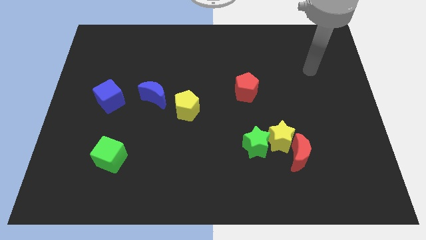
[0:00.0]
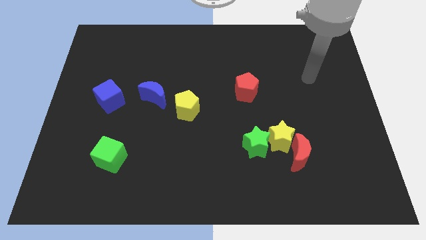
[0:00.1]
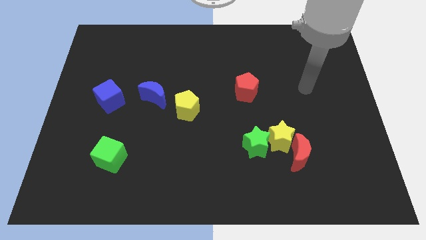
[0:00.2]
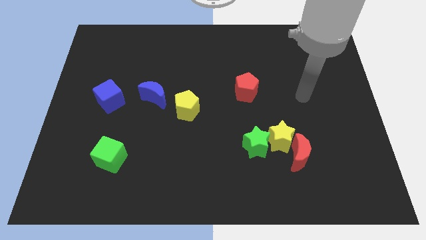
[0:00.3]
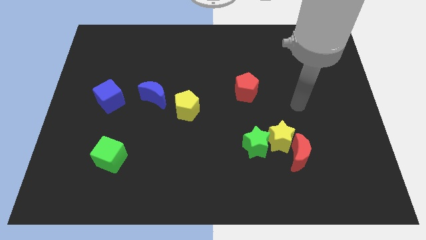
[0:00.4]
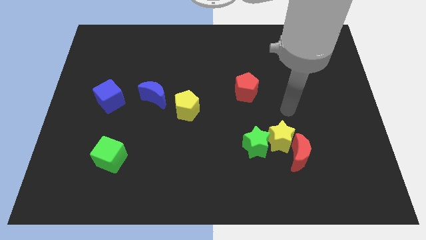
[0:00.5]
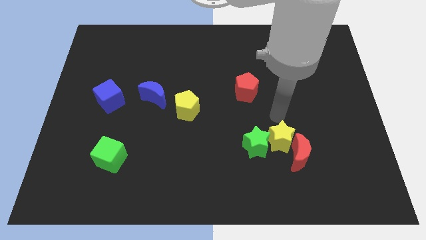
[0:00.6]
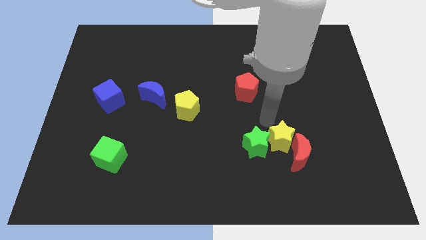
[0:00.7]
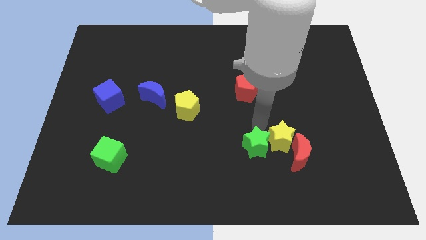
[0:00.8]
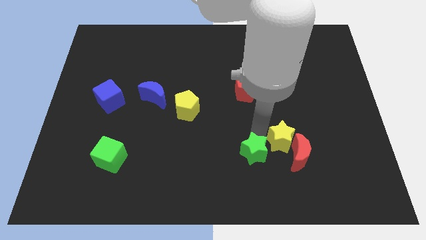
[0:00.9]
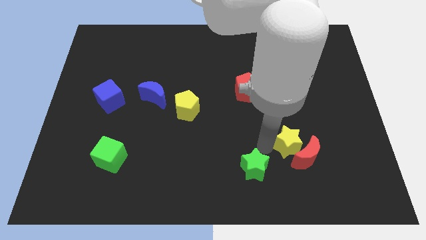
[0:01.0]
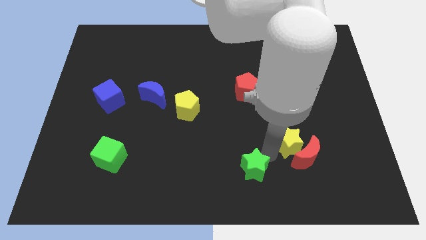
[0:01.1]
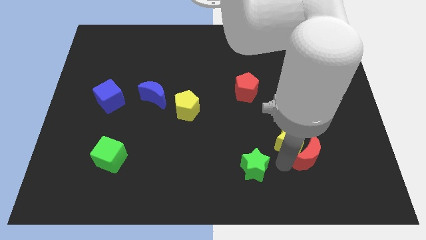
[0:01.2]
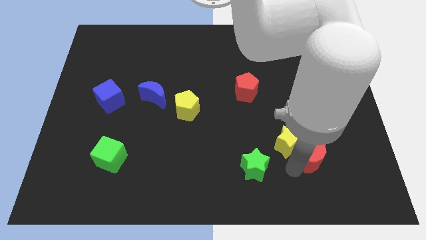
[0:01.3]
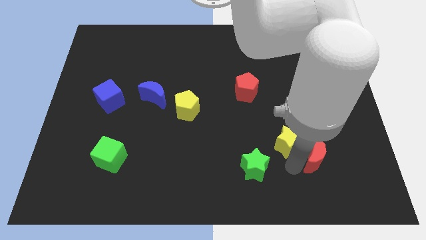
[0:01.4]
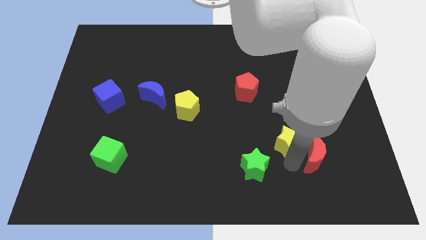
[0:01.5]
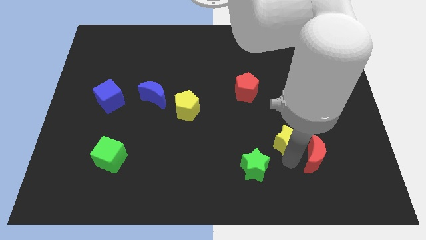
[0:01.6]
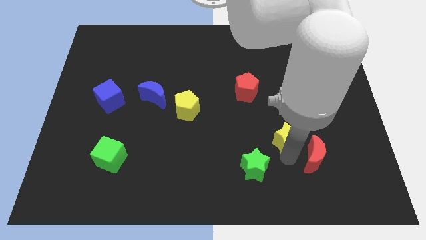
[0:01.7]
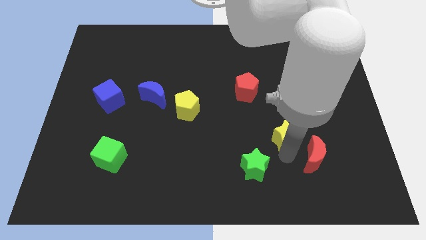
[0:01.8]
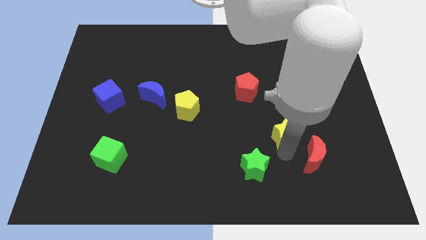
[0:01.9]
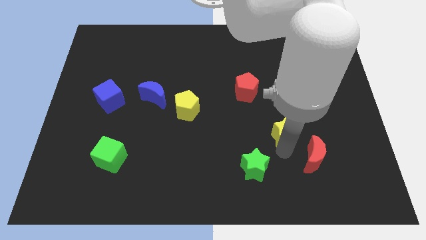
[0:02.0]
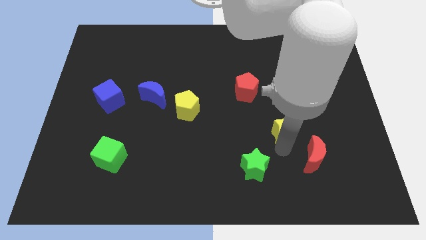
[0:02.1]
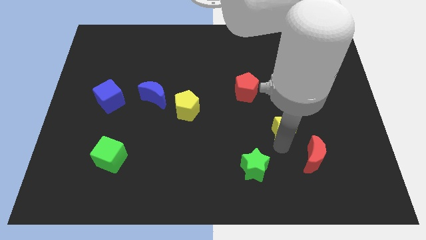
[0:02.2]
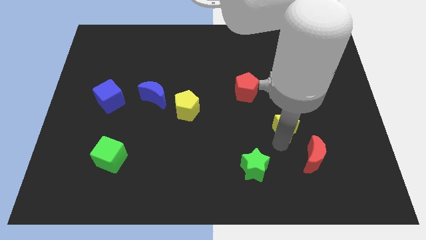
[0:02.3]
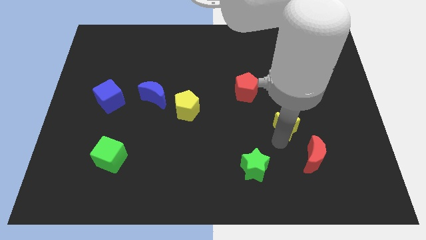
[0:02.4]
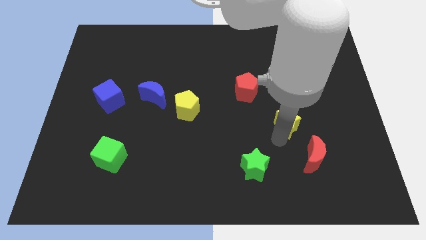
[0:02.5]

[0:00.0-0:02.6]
move the yellow star away from the red moon and green star

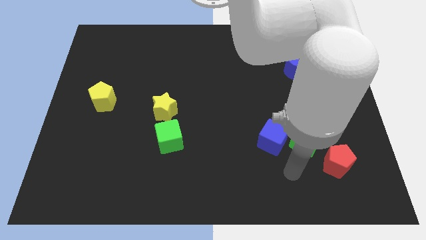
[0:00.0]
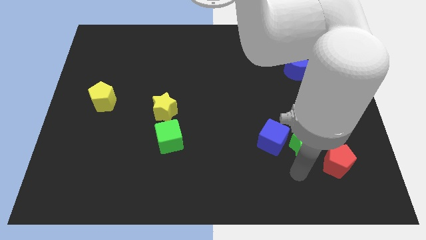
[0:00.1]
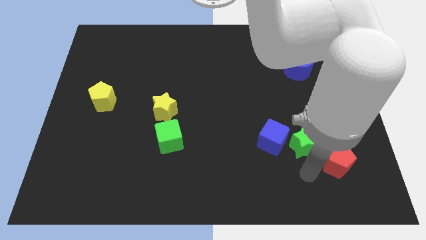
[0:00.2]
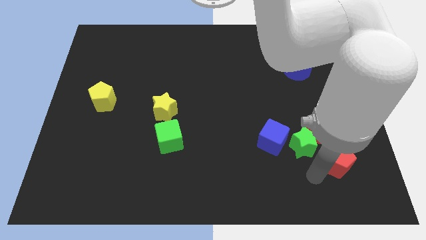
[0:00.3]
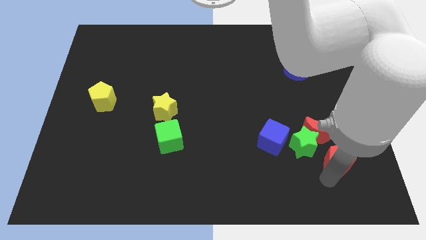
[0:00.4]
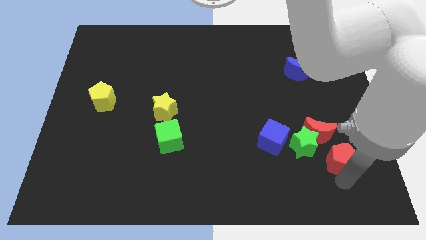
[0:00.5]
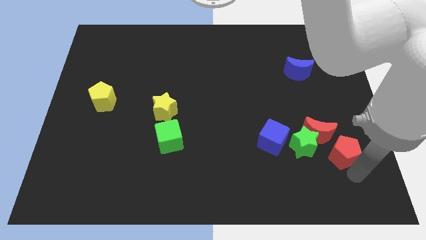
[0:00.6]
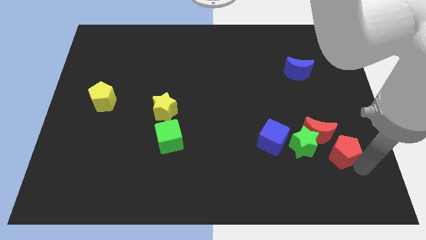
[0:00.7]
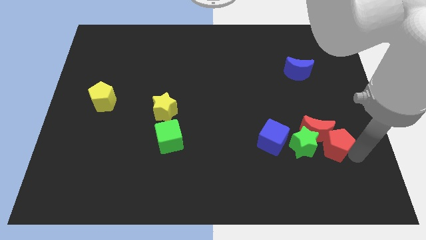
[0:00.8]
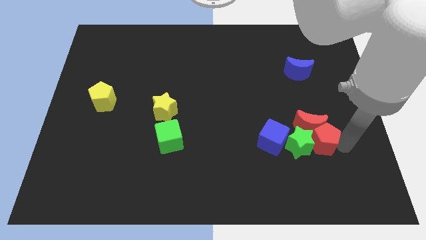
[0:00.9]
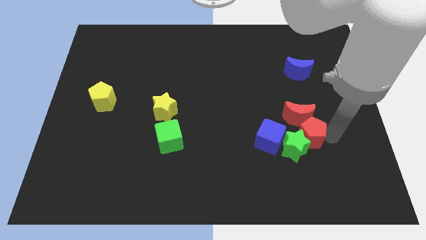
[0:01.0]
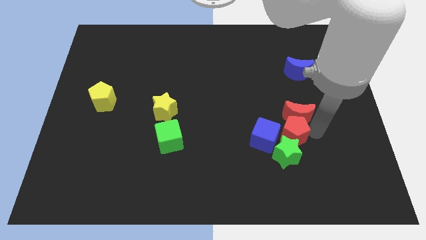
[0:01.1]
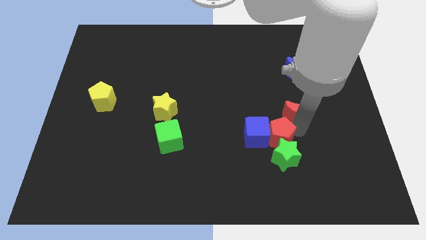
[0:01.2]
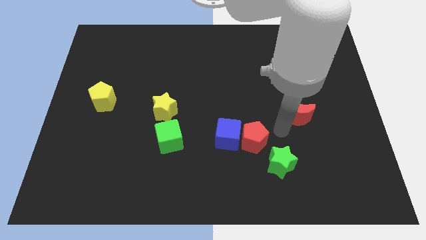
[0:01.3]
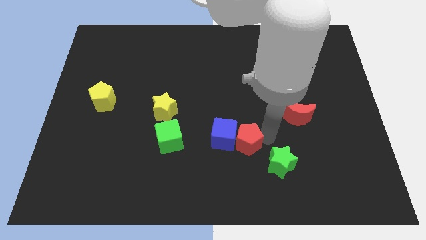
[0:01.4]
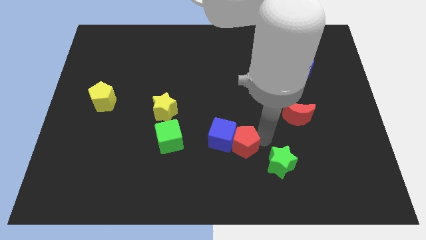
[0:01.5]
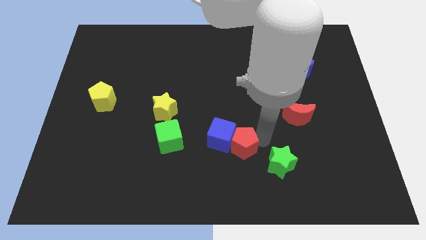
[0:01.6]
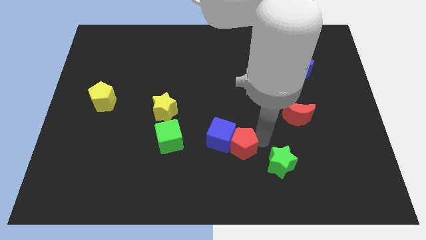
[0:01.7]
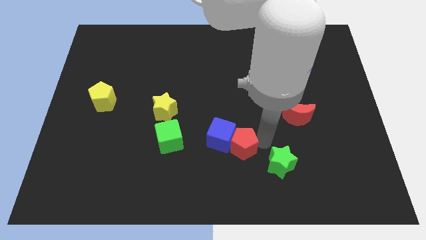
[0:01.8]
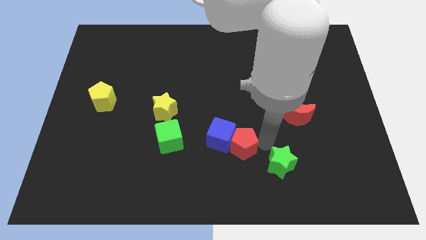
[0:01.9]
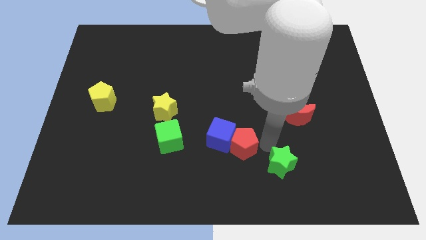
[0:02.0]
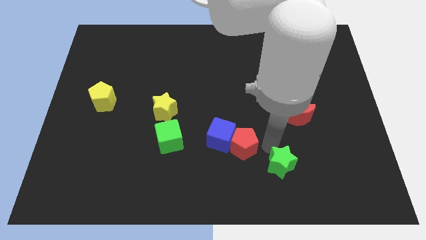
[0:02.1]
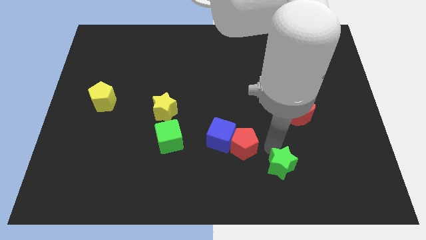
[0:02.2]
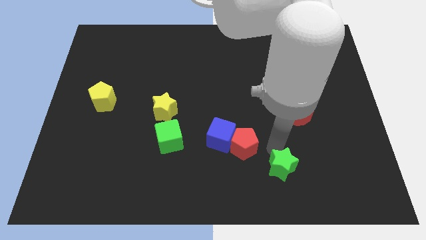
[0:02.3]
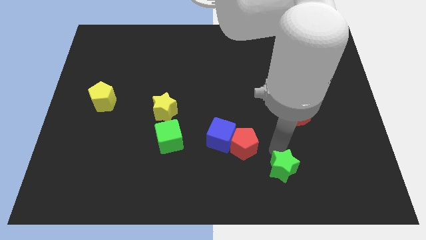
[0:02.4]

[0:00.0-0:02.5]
separate the green star from the clump

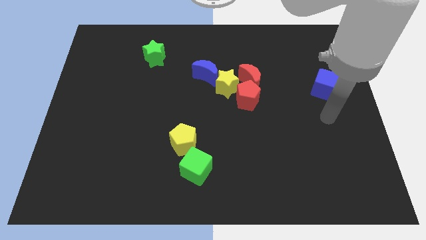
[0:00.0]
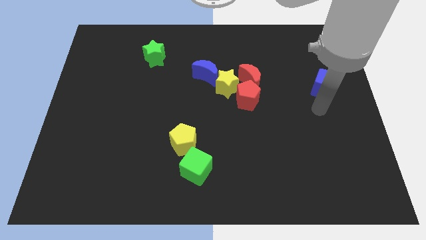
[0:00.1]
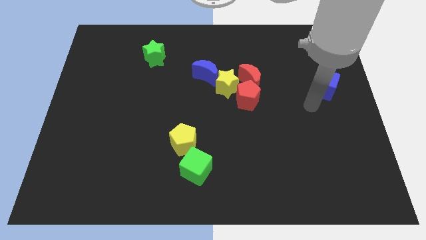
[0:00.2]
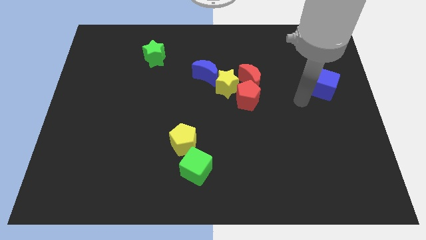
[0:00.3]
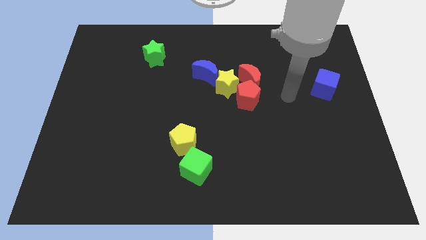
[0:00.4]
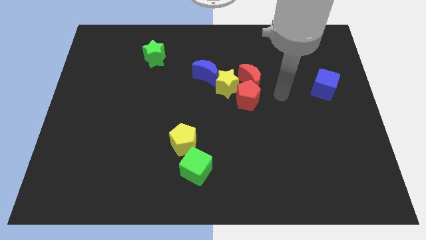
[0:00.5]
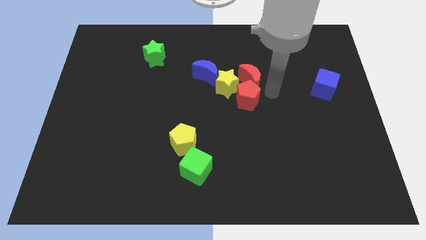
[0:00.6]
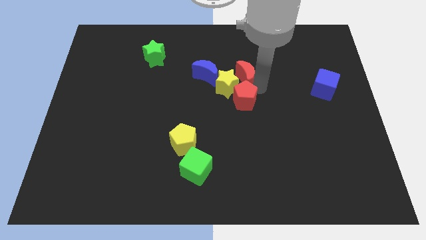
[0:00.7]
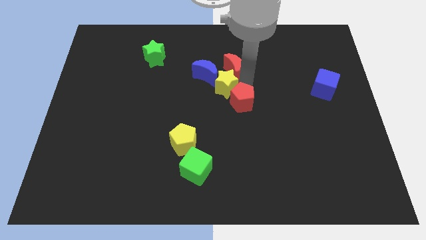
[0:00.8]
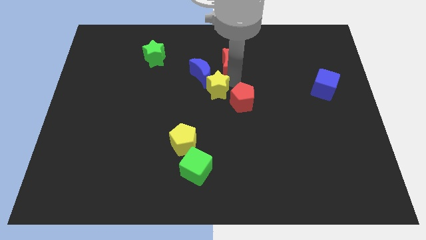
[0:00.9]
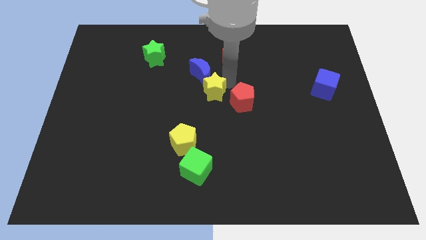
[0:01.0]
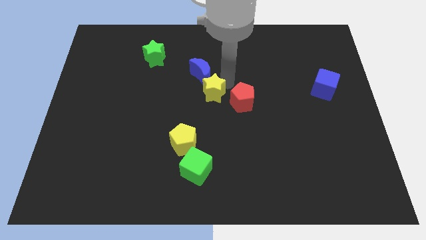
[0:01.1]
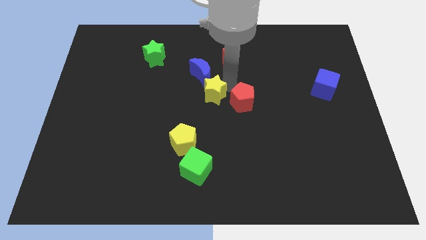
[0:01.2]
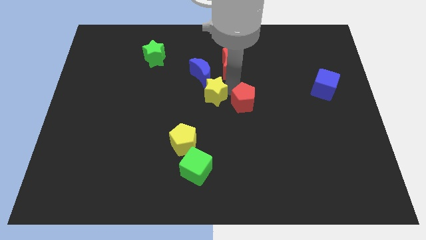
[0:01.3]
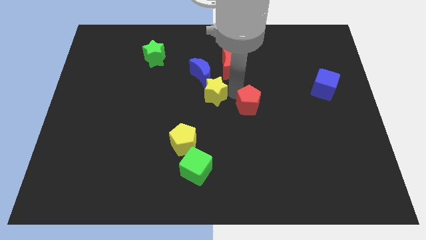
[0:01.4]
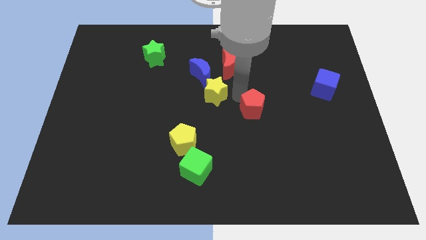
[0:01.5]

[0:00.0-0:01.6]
pull the red pentagon apart from the yellow star and red moon

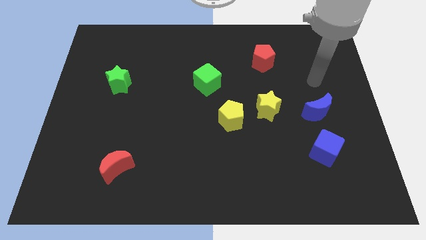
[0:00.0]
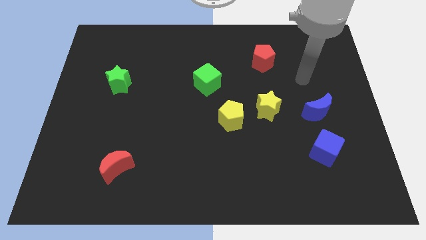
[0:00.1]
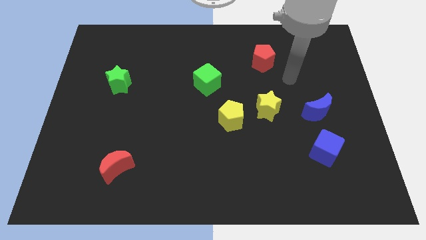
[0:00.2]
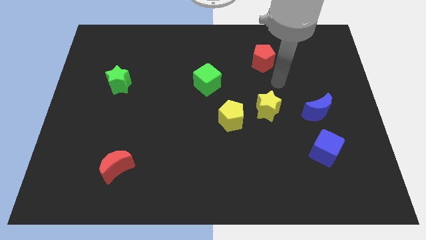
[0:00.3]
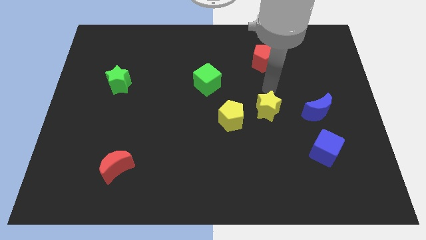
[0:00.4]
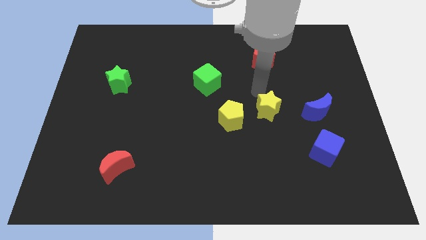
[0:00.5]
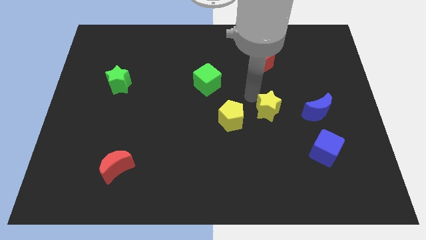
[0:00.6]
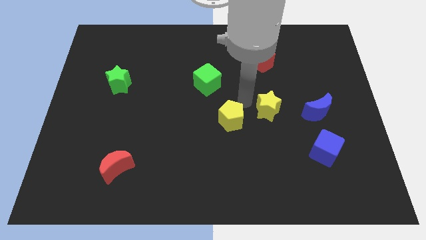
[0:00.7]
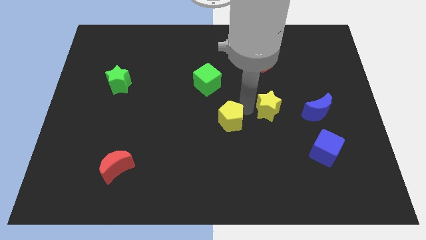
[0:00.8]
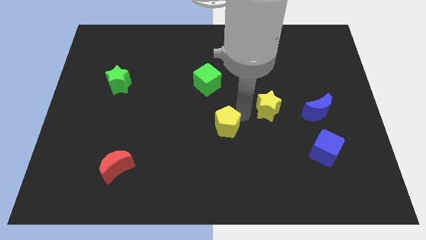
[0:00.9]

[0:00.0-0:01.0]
pull the yellow star apart from the yellow pentagon

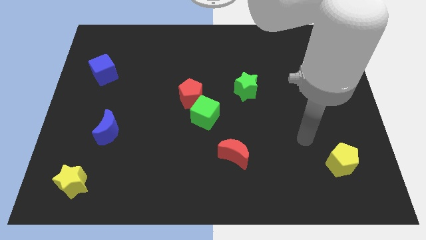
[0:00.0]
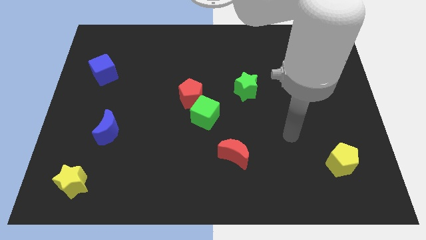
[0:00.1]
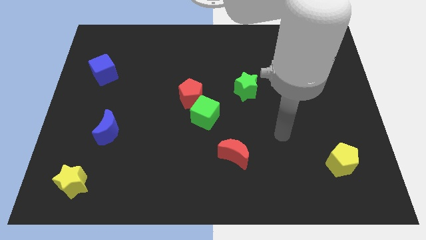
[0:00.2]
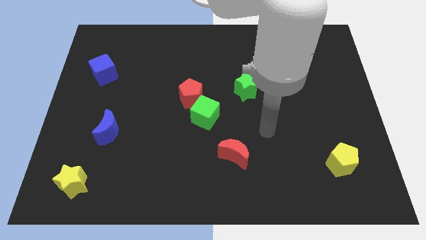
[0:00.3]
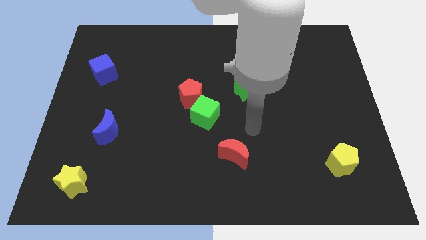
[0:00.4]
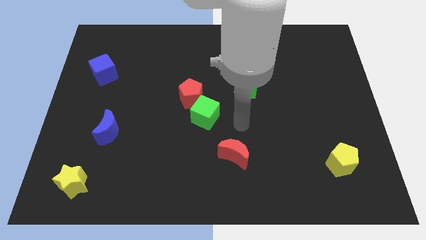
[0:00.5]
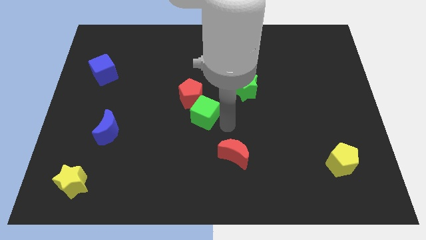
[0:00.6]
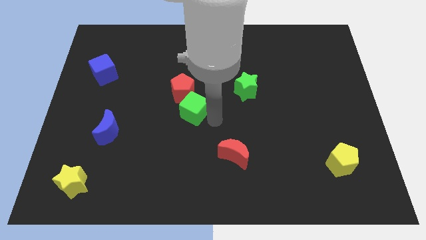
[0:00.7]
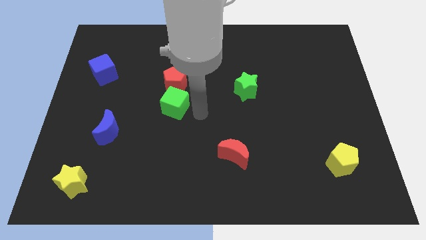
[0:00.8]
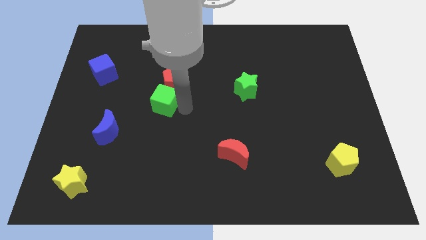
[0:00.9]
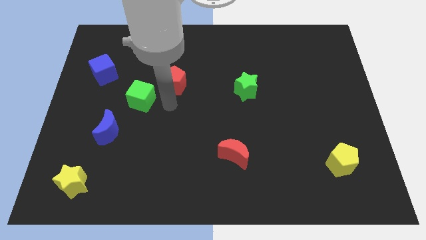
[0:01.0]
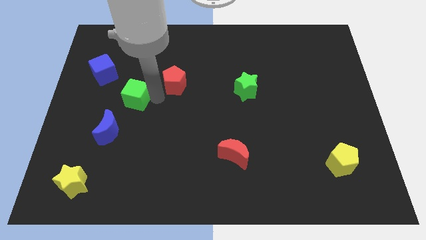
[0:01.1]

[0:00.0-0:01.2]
pull the red pentagon apart from the green cube

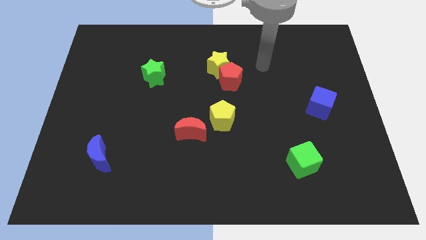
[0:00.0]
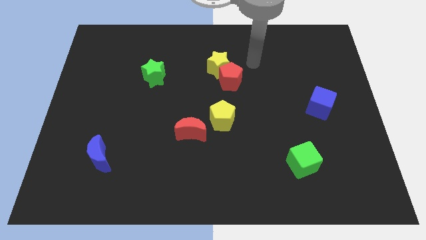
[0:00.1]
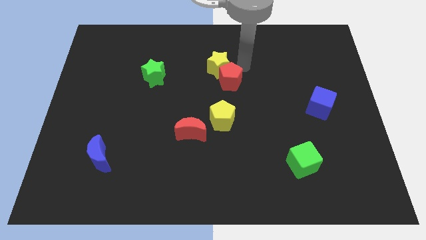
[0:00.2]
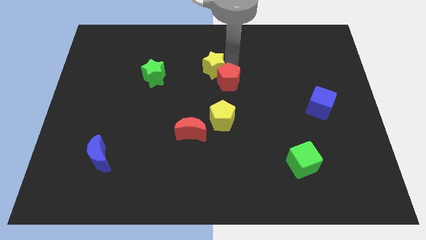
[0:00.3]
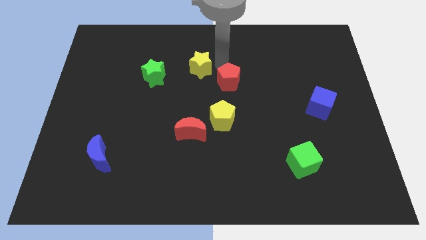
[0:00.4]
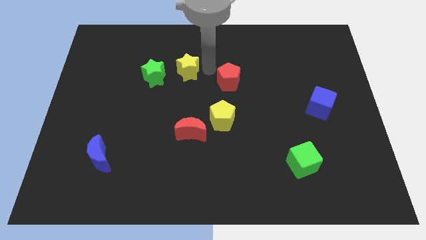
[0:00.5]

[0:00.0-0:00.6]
move the red pentagon away from the yellow star

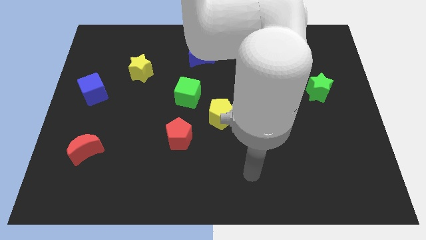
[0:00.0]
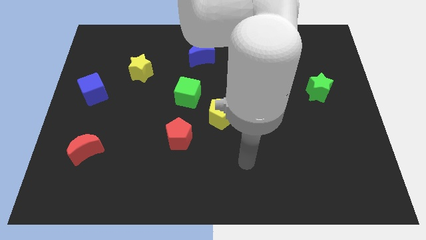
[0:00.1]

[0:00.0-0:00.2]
pull the green cube apart from the yellow pentagon
